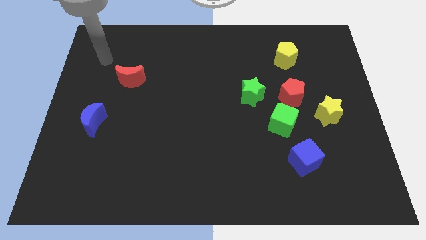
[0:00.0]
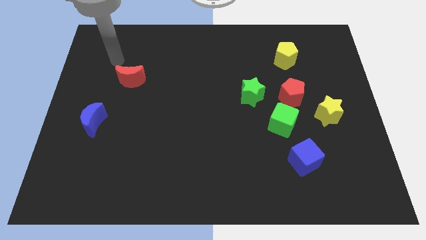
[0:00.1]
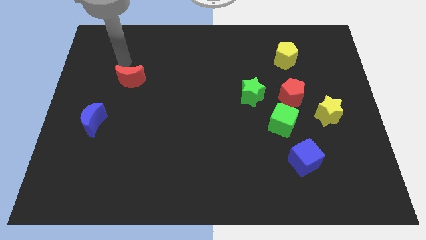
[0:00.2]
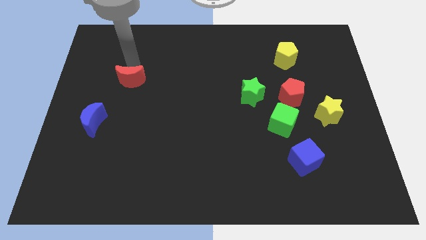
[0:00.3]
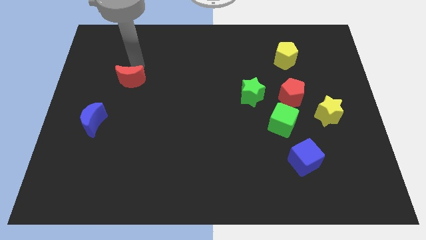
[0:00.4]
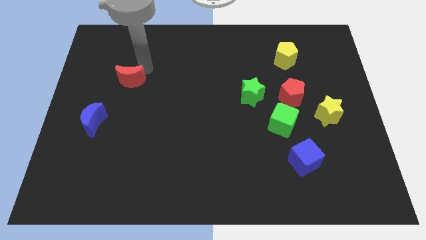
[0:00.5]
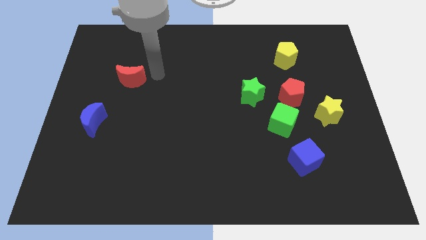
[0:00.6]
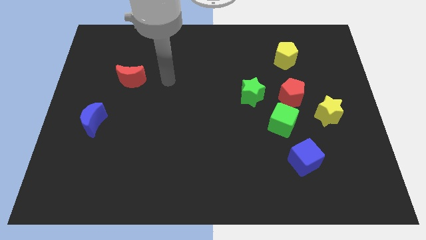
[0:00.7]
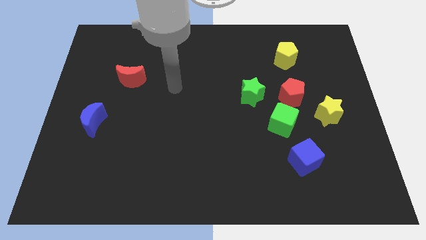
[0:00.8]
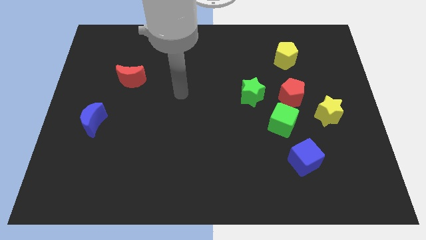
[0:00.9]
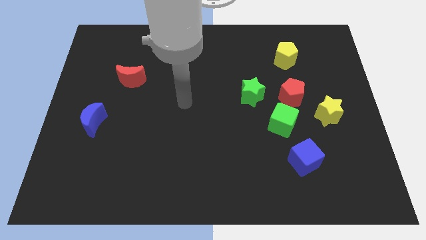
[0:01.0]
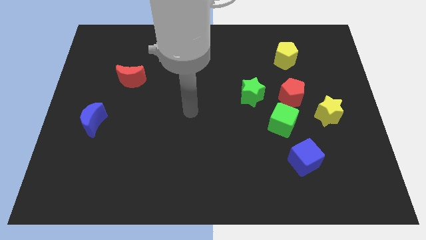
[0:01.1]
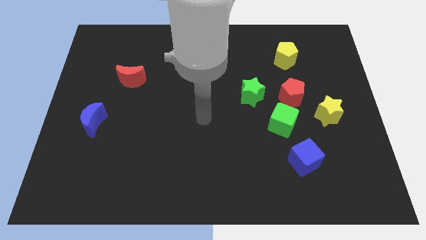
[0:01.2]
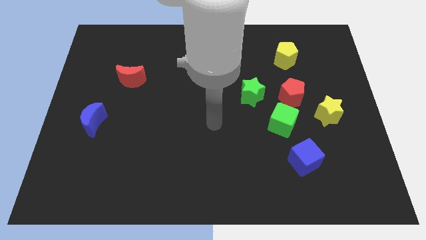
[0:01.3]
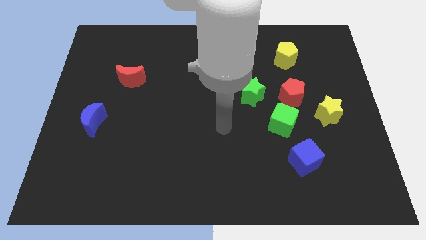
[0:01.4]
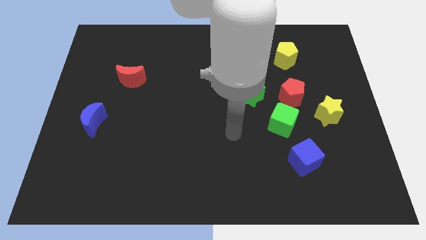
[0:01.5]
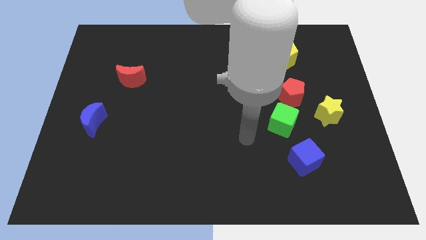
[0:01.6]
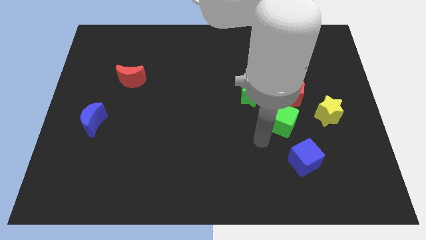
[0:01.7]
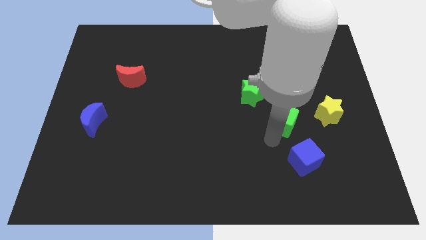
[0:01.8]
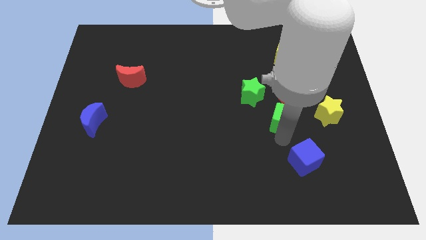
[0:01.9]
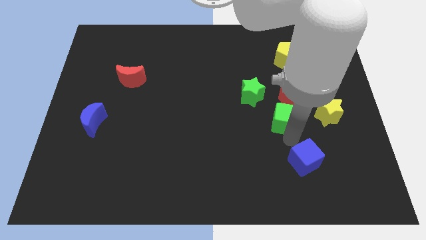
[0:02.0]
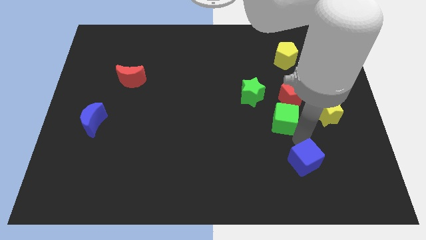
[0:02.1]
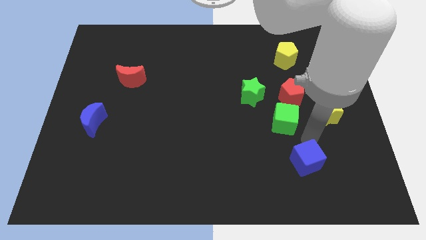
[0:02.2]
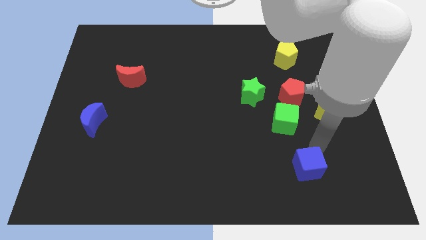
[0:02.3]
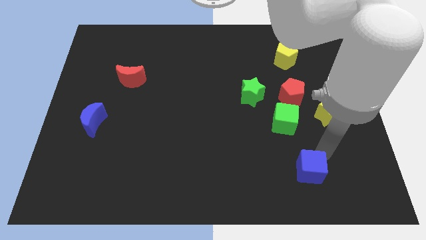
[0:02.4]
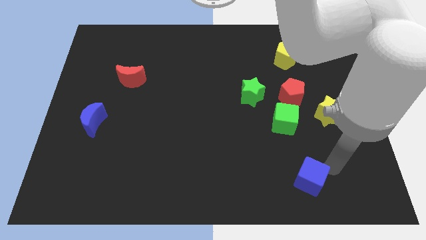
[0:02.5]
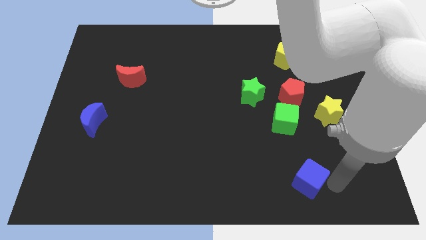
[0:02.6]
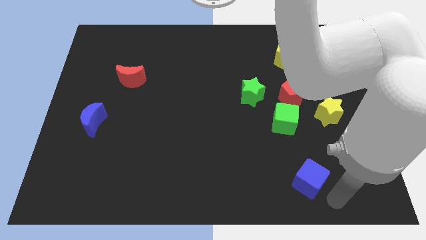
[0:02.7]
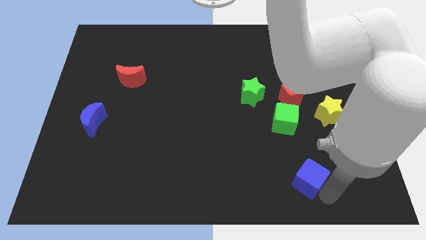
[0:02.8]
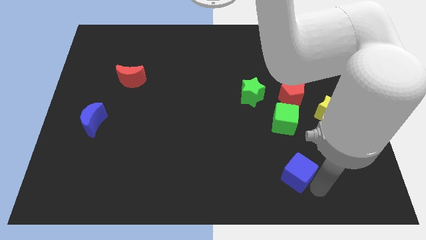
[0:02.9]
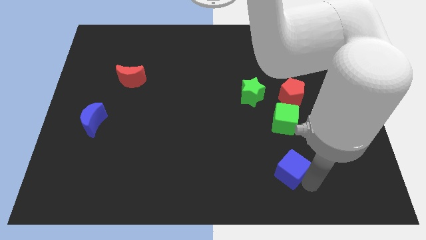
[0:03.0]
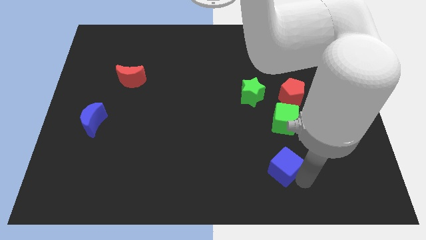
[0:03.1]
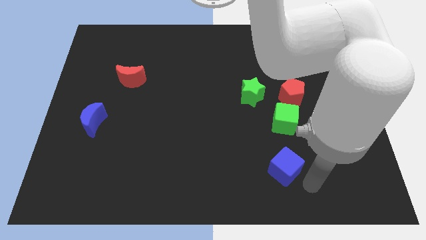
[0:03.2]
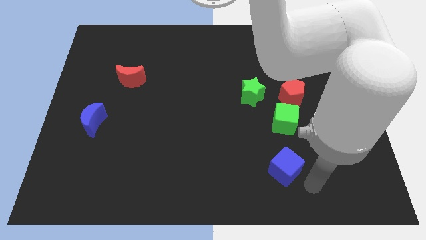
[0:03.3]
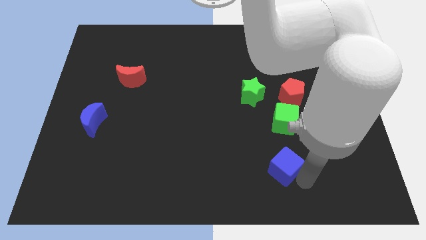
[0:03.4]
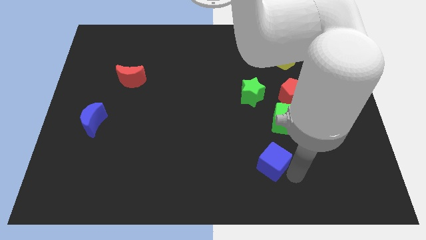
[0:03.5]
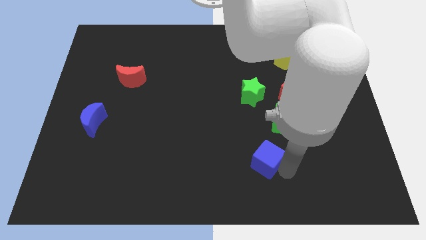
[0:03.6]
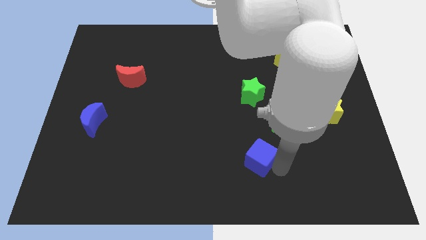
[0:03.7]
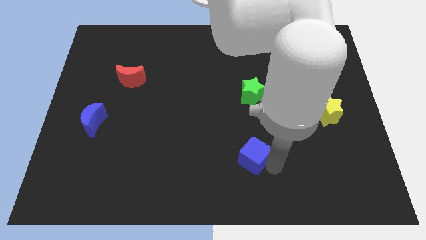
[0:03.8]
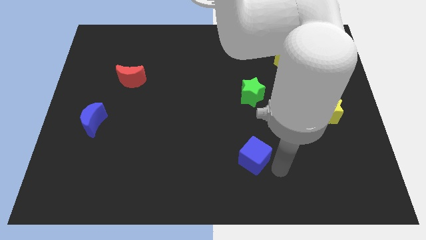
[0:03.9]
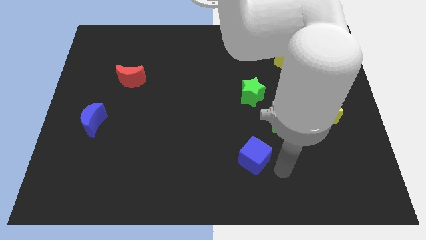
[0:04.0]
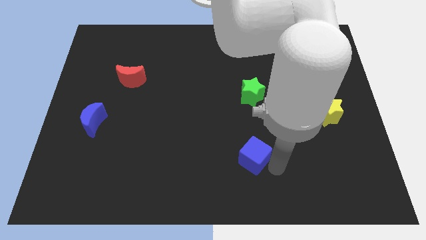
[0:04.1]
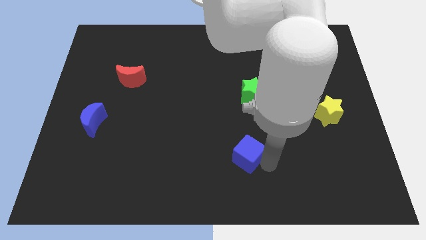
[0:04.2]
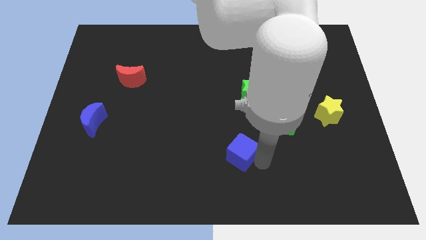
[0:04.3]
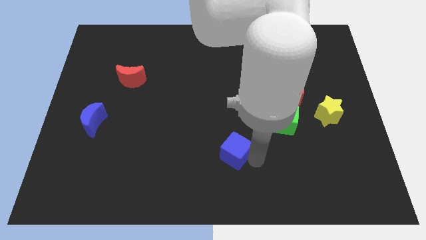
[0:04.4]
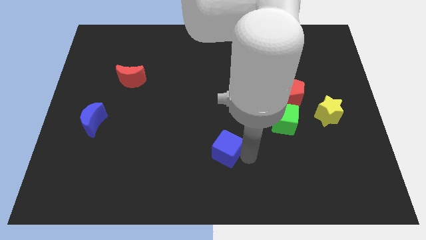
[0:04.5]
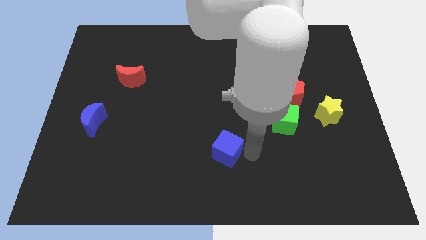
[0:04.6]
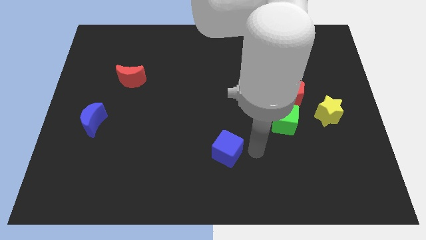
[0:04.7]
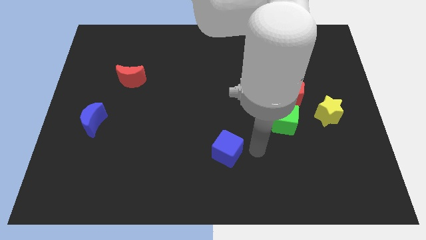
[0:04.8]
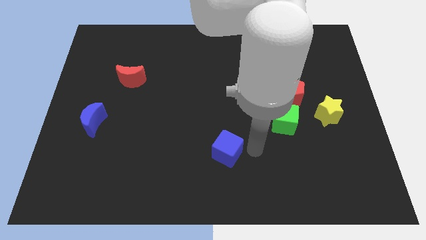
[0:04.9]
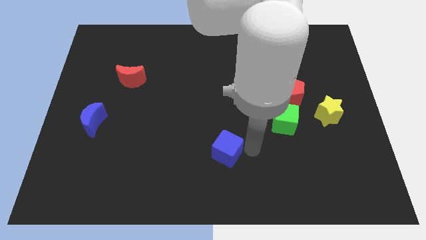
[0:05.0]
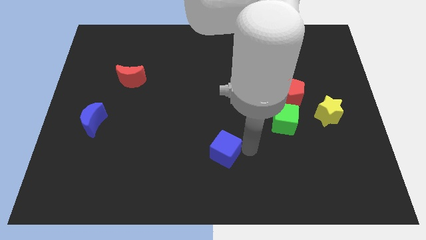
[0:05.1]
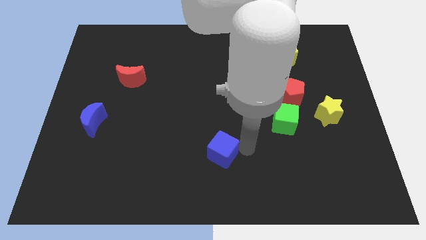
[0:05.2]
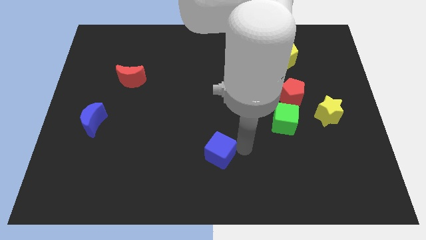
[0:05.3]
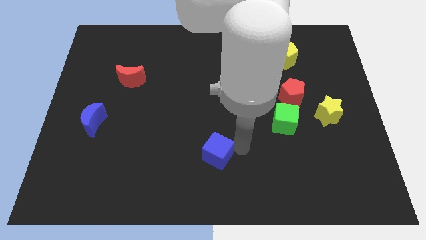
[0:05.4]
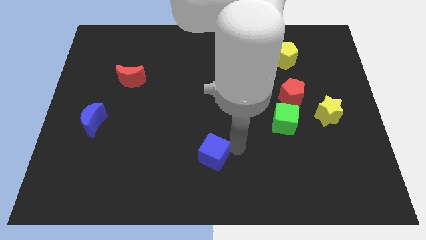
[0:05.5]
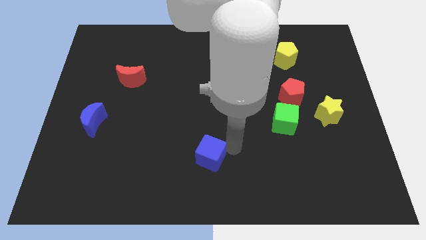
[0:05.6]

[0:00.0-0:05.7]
push the blue cube to the left

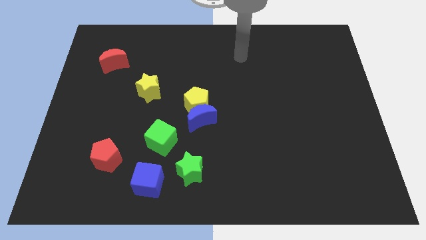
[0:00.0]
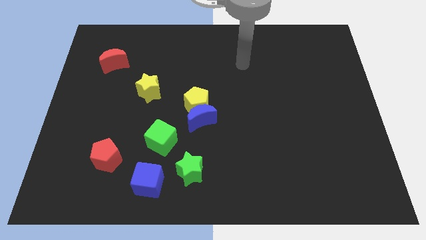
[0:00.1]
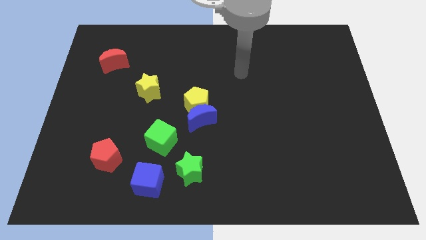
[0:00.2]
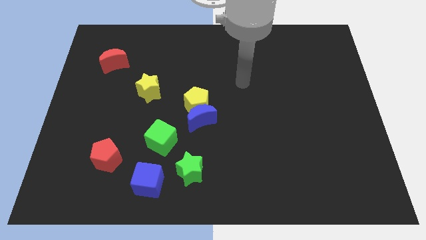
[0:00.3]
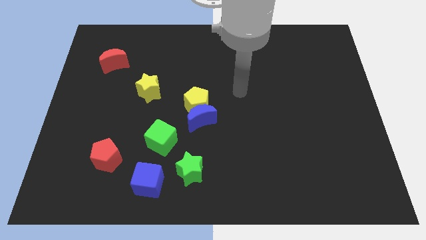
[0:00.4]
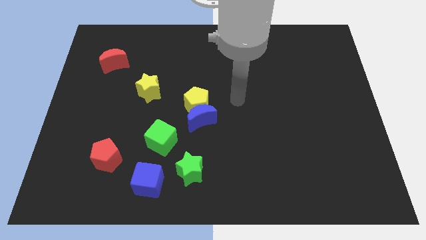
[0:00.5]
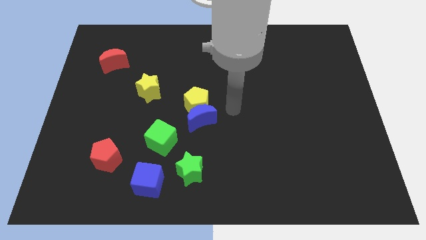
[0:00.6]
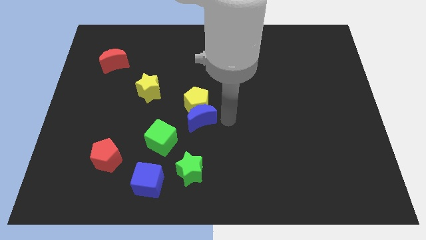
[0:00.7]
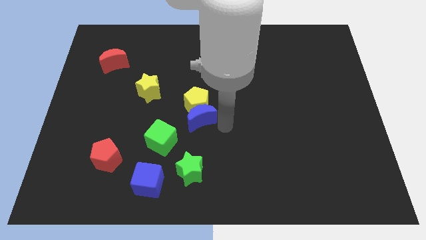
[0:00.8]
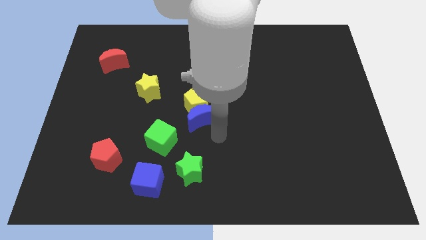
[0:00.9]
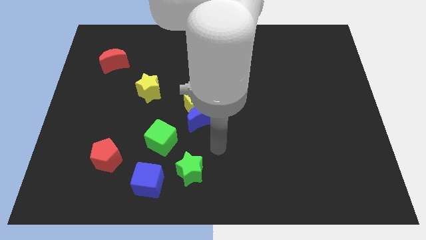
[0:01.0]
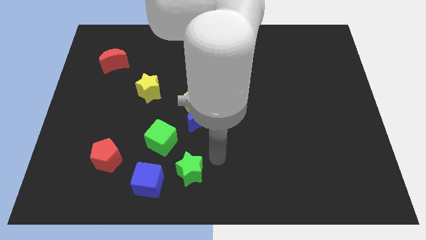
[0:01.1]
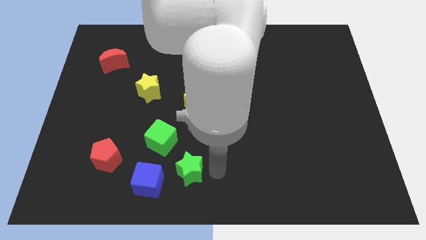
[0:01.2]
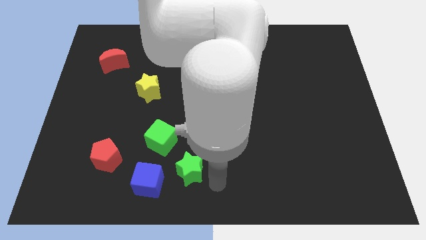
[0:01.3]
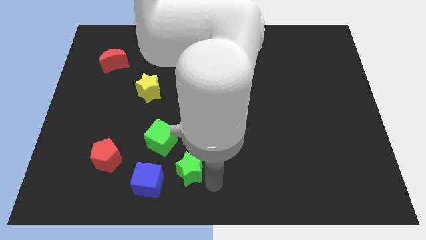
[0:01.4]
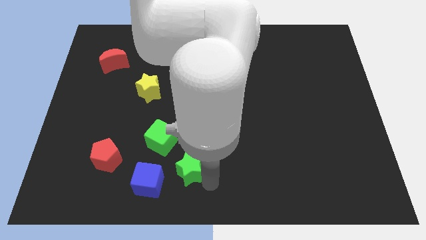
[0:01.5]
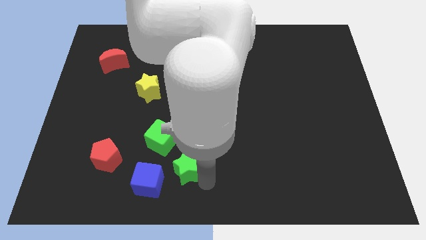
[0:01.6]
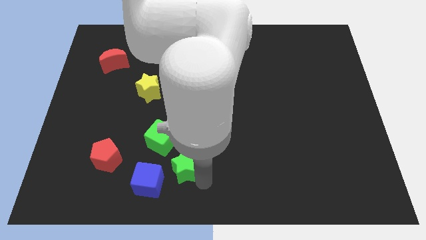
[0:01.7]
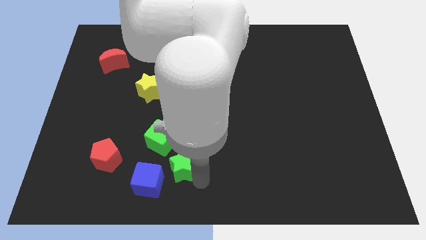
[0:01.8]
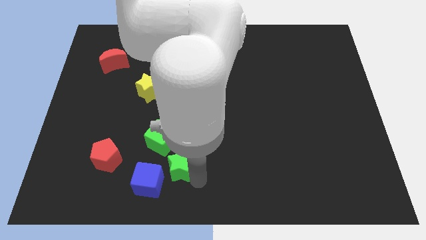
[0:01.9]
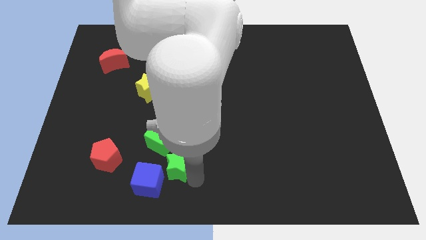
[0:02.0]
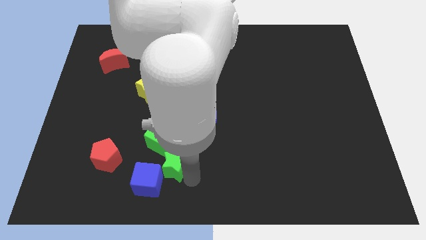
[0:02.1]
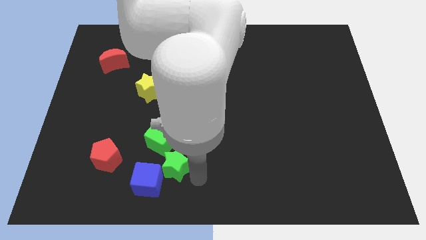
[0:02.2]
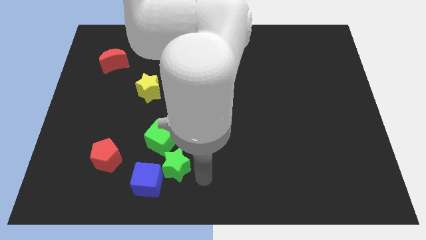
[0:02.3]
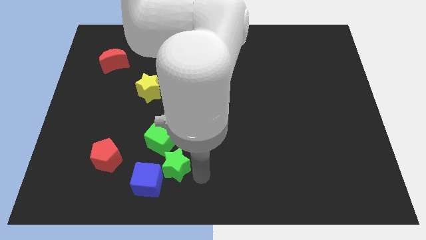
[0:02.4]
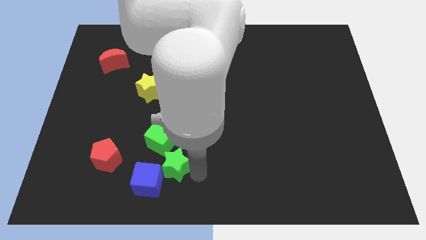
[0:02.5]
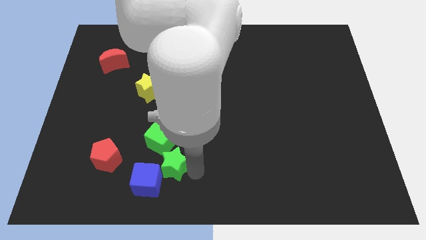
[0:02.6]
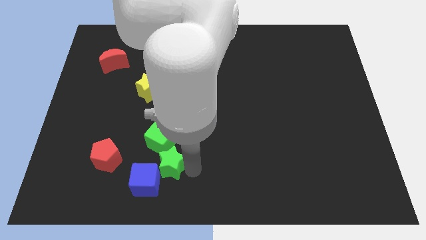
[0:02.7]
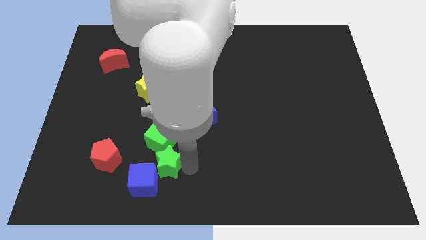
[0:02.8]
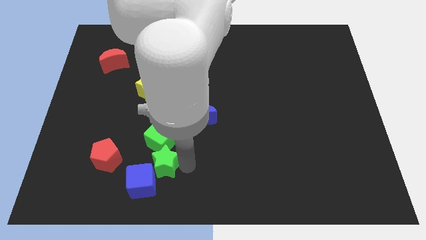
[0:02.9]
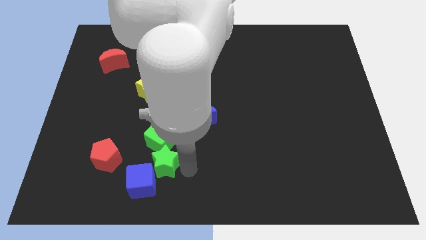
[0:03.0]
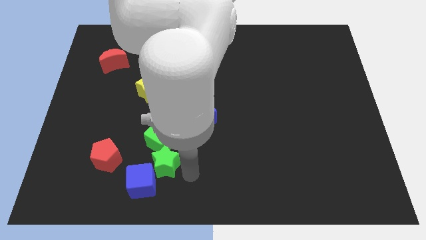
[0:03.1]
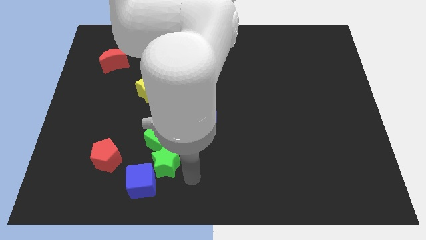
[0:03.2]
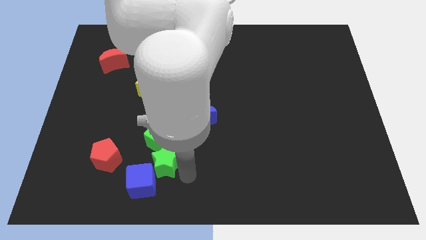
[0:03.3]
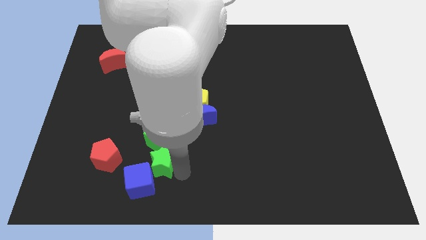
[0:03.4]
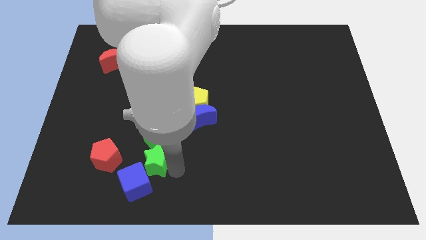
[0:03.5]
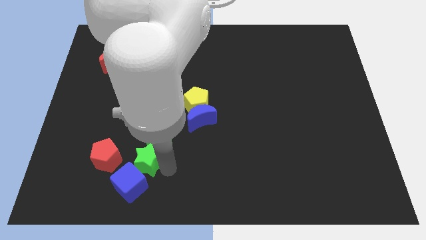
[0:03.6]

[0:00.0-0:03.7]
slightly move the green star up and left diagonally
